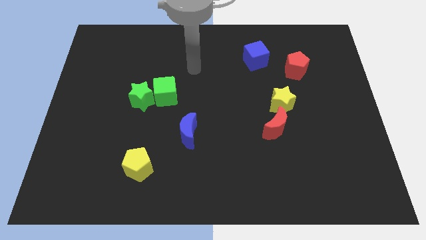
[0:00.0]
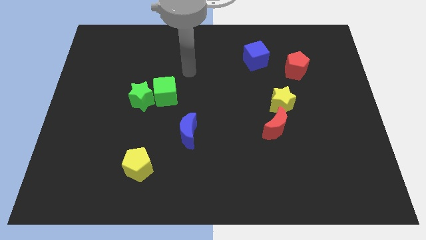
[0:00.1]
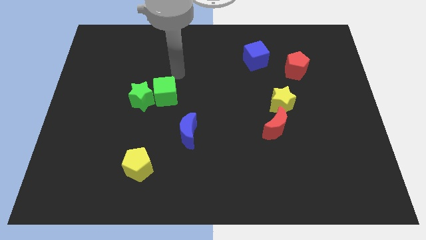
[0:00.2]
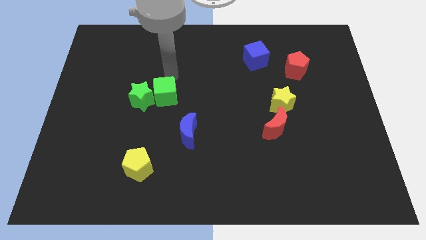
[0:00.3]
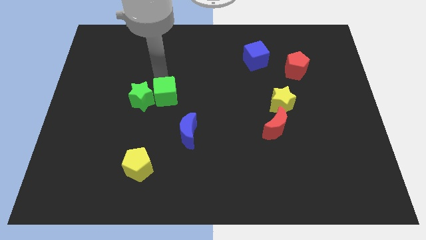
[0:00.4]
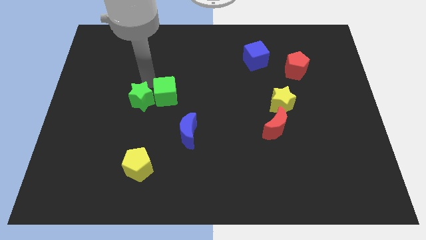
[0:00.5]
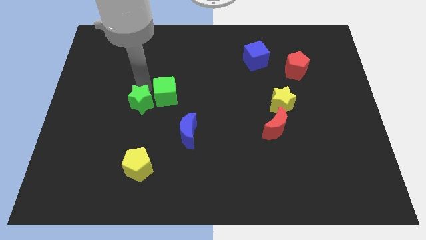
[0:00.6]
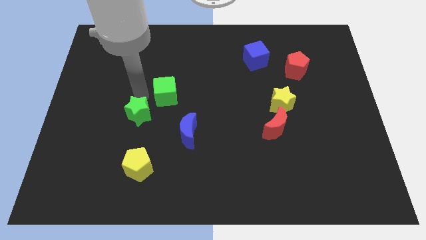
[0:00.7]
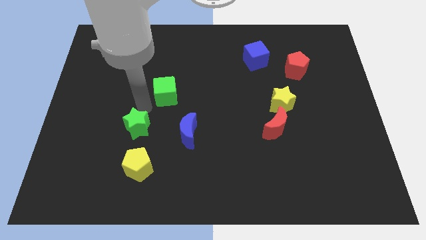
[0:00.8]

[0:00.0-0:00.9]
separate the green cube from the green star

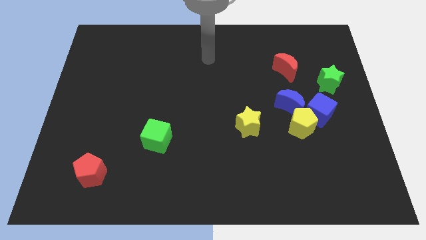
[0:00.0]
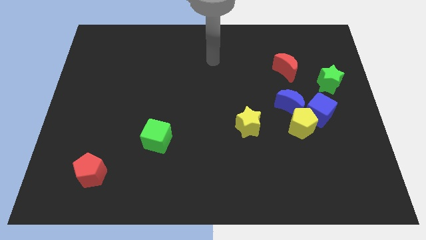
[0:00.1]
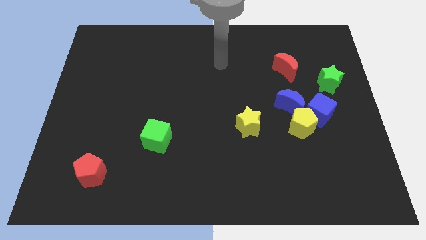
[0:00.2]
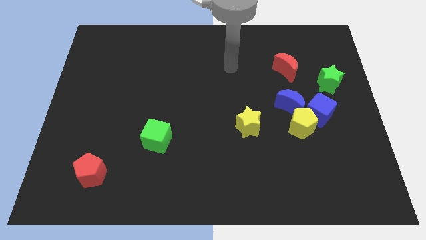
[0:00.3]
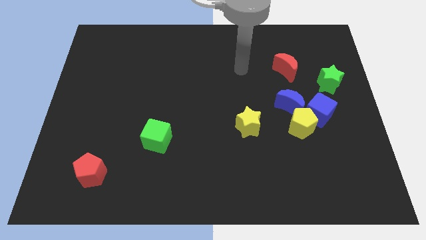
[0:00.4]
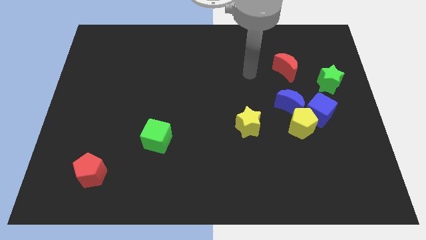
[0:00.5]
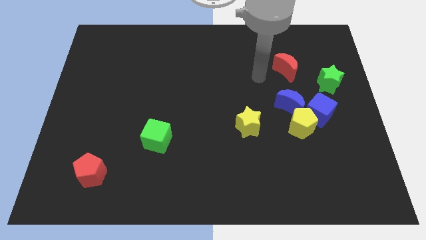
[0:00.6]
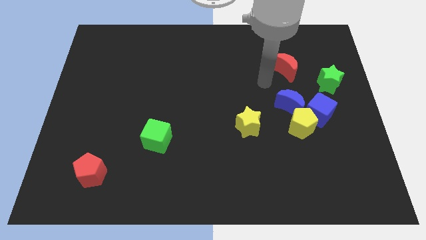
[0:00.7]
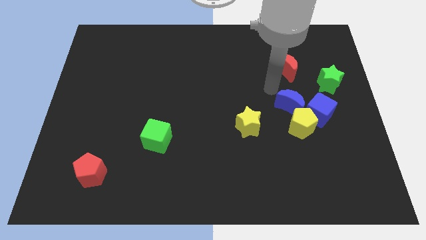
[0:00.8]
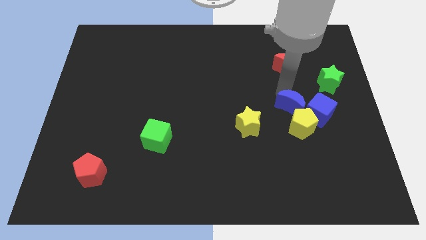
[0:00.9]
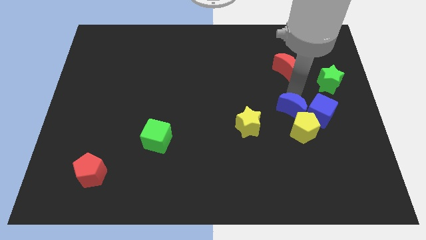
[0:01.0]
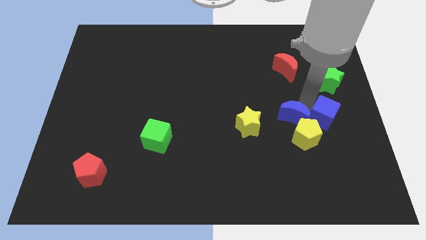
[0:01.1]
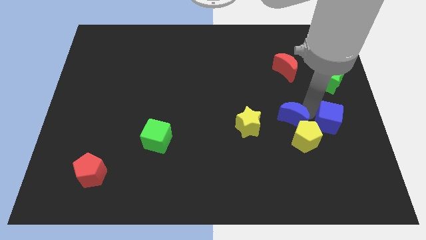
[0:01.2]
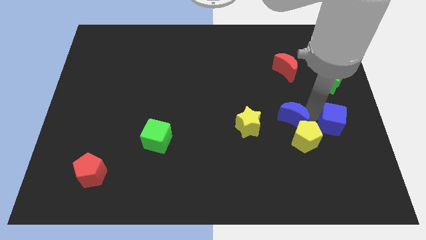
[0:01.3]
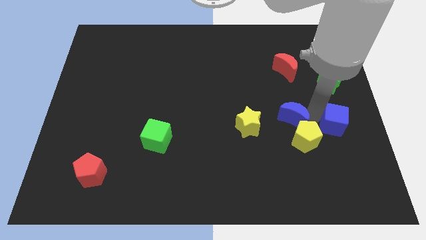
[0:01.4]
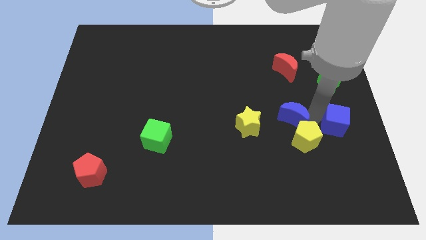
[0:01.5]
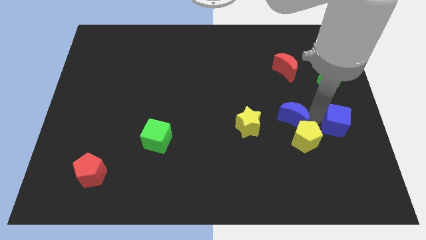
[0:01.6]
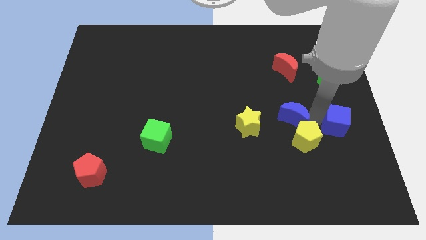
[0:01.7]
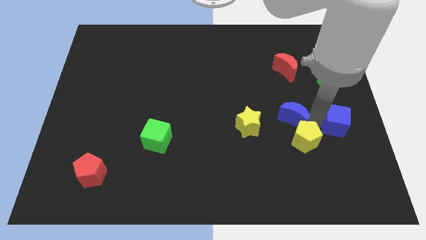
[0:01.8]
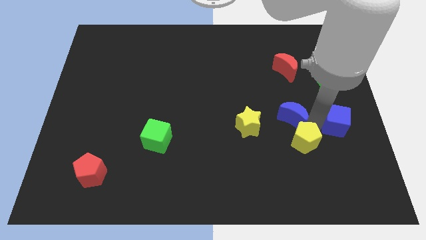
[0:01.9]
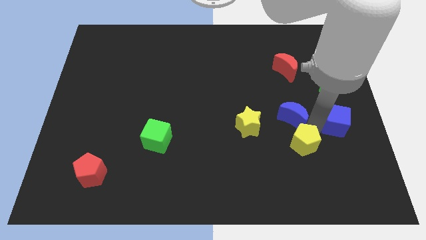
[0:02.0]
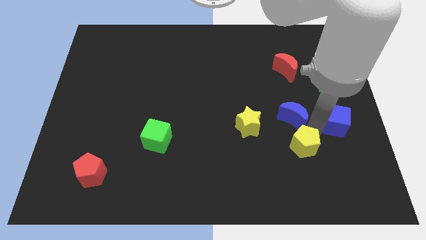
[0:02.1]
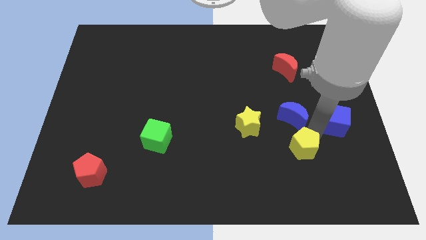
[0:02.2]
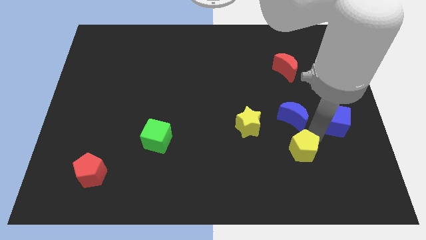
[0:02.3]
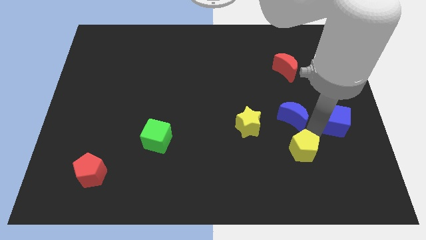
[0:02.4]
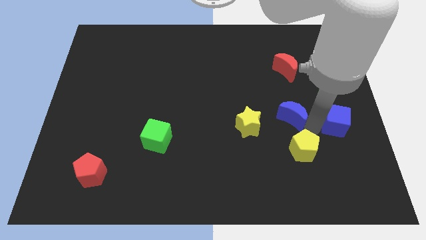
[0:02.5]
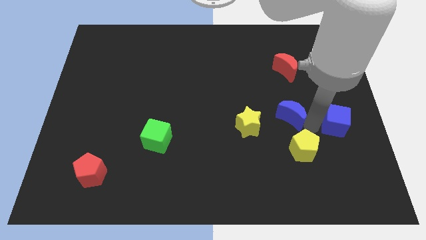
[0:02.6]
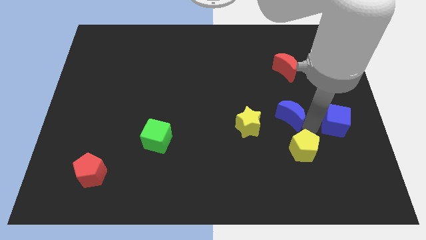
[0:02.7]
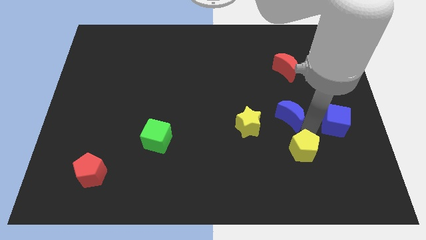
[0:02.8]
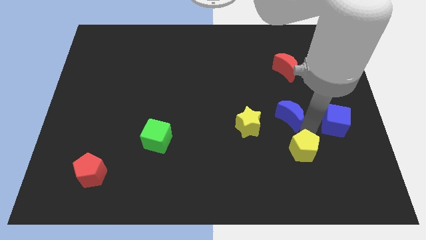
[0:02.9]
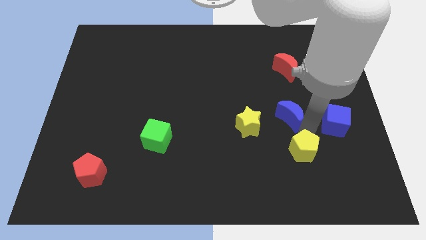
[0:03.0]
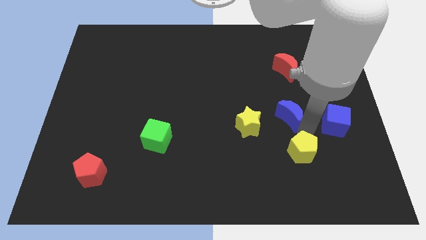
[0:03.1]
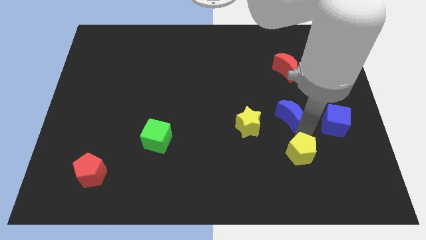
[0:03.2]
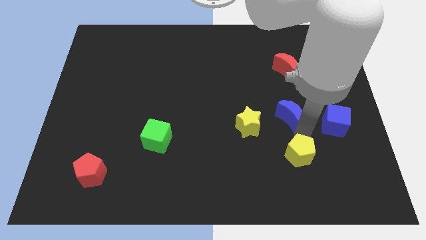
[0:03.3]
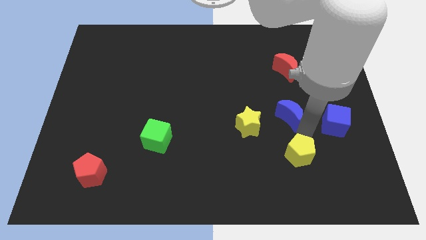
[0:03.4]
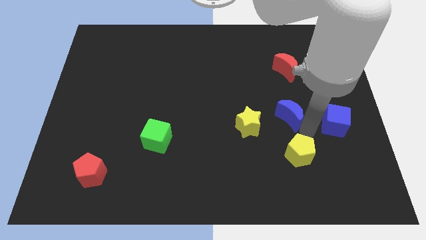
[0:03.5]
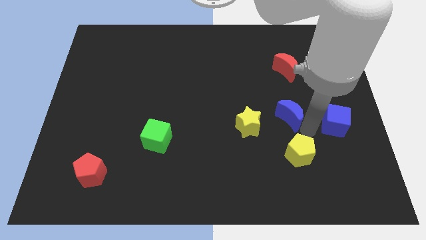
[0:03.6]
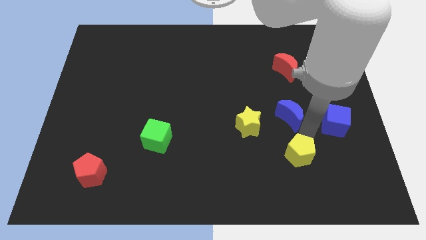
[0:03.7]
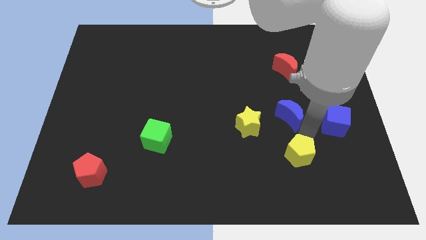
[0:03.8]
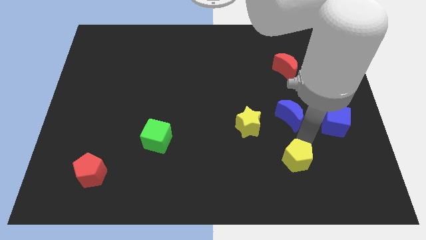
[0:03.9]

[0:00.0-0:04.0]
move the yellow pentagon away from the blue cube and blue moon

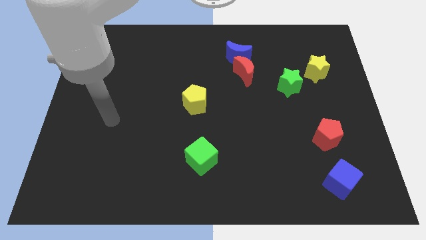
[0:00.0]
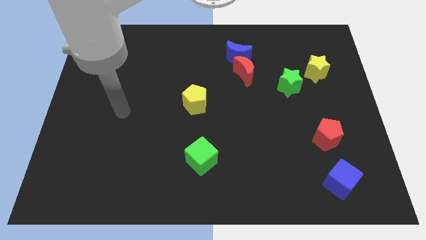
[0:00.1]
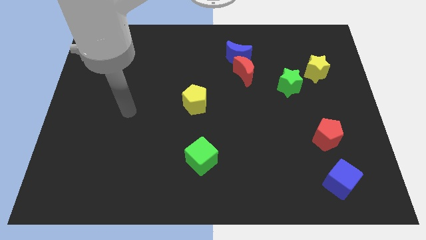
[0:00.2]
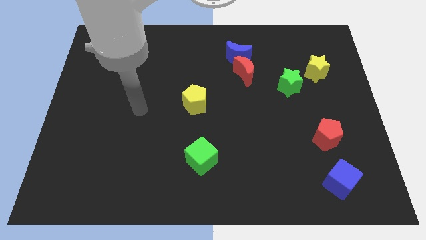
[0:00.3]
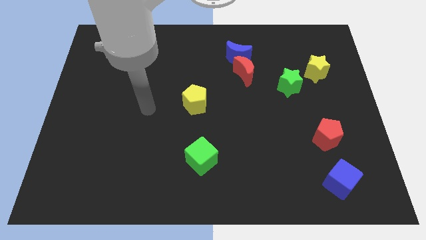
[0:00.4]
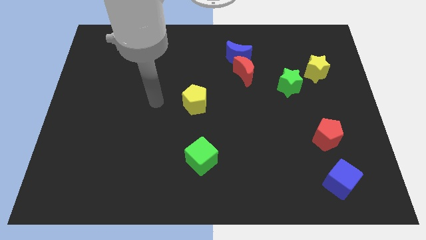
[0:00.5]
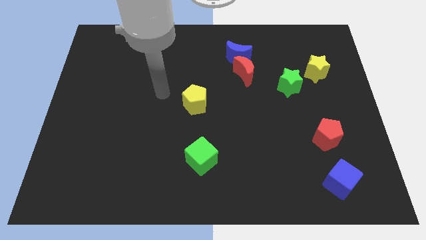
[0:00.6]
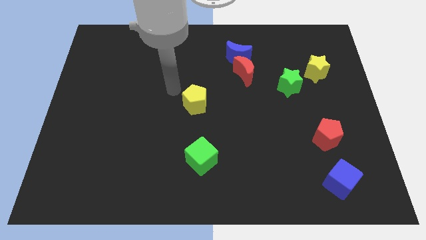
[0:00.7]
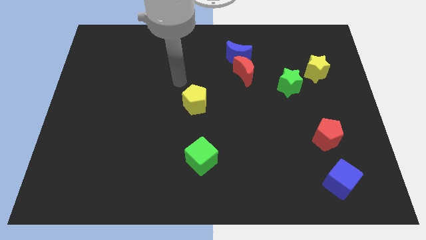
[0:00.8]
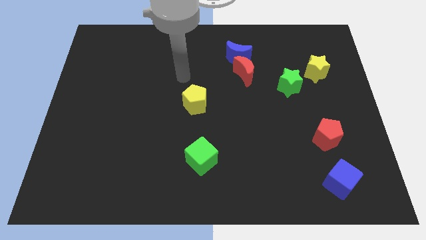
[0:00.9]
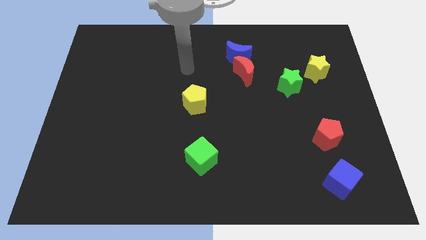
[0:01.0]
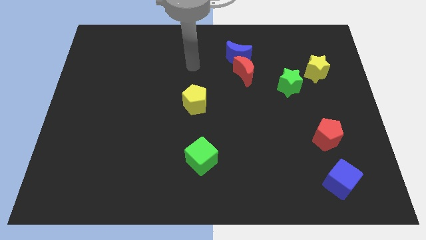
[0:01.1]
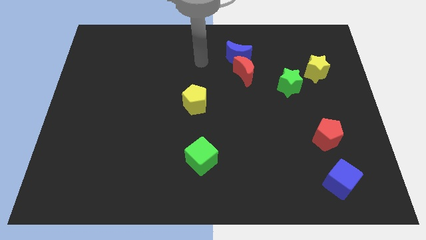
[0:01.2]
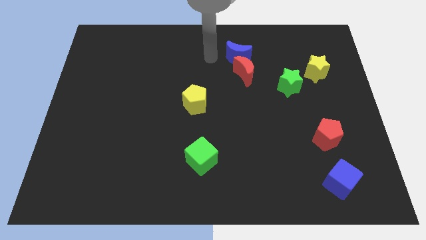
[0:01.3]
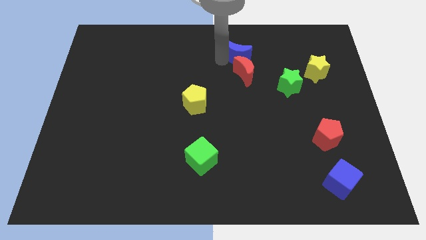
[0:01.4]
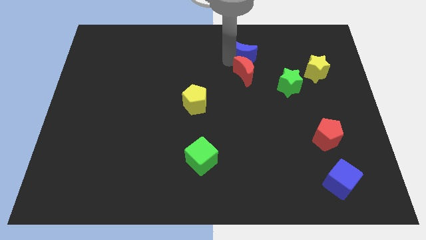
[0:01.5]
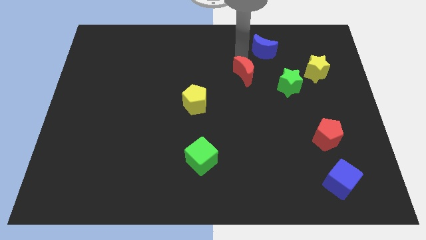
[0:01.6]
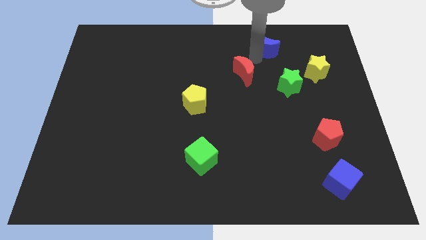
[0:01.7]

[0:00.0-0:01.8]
move the red moon away from the blue moon

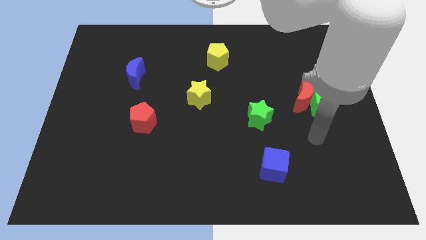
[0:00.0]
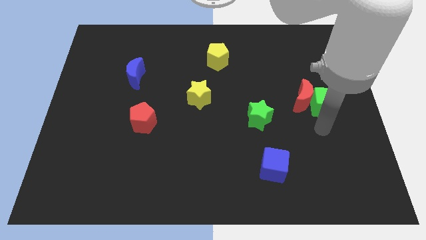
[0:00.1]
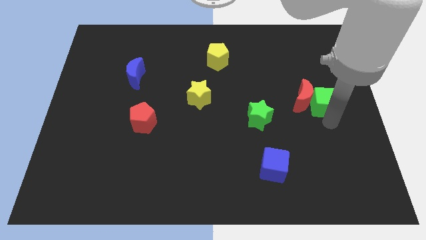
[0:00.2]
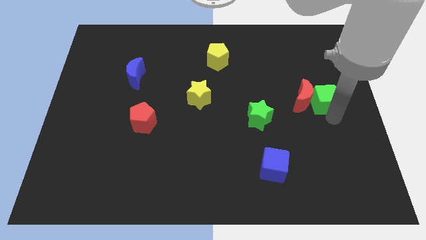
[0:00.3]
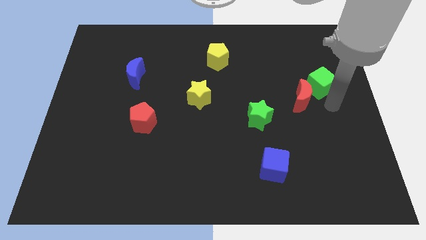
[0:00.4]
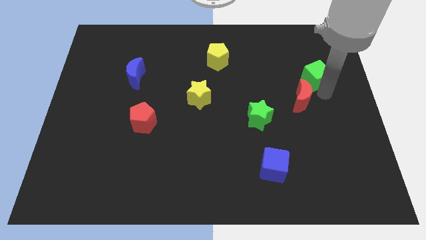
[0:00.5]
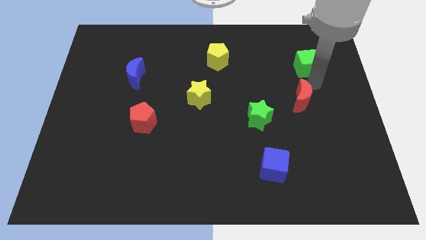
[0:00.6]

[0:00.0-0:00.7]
move the red moon away from the green cube

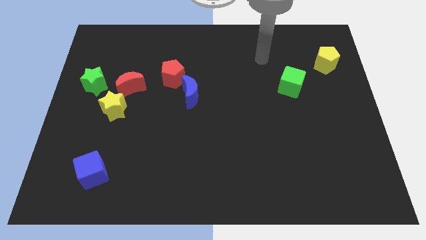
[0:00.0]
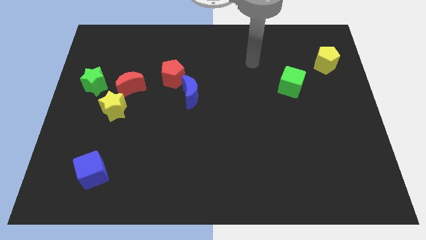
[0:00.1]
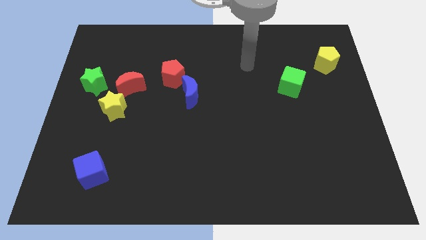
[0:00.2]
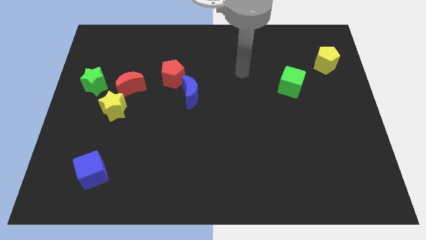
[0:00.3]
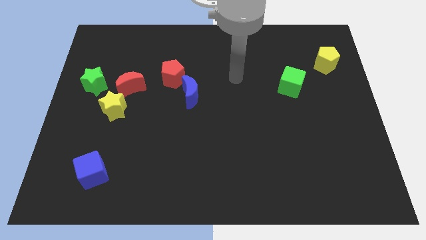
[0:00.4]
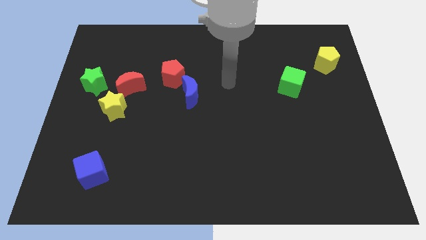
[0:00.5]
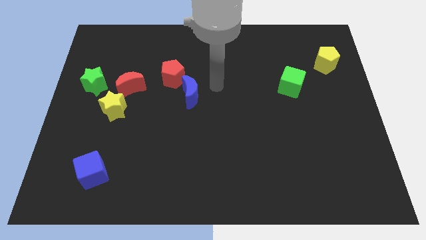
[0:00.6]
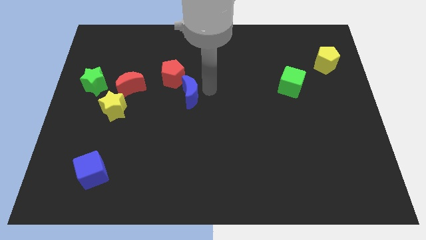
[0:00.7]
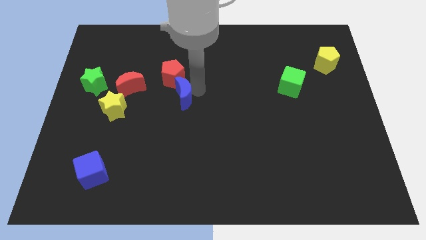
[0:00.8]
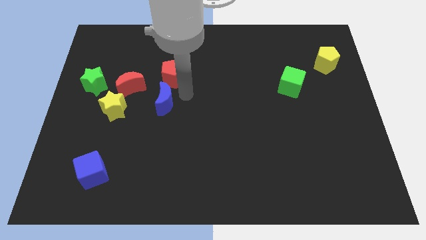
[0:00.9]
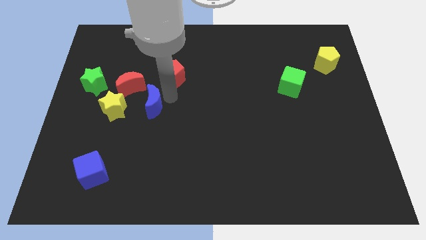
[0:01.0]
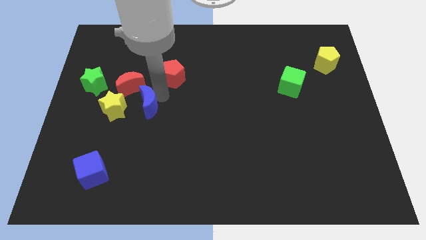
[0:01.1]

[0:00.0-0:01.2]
move the red pentagon away from the blue moon

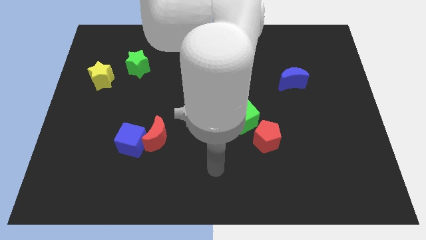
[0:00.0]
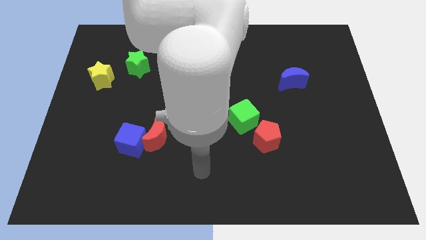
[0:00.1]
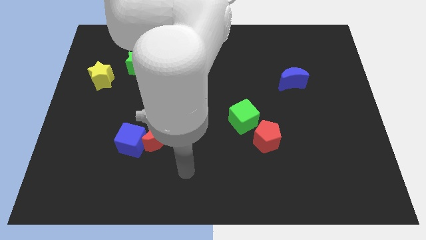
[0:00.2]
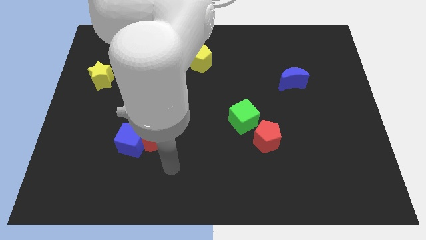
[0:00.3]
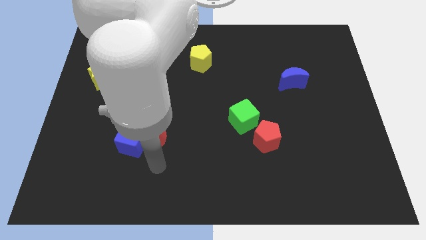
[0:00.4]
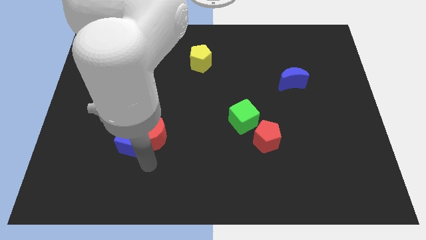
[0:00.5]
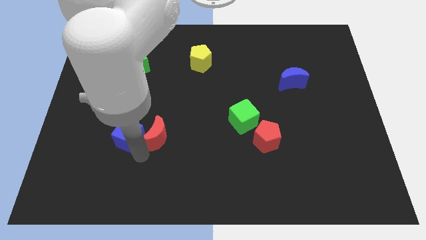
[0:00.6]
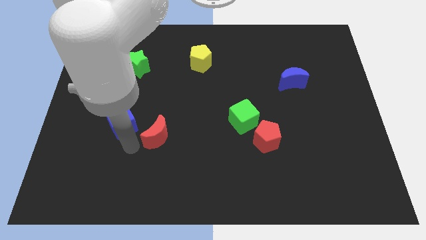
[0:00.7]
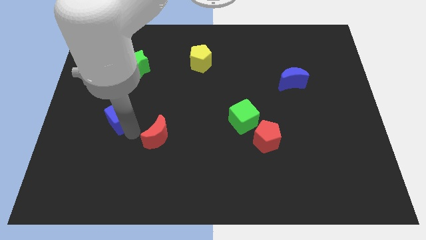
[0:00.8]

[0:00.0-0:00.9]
move the red moon away from the blue cube
